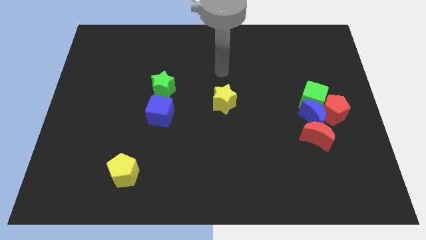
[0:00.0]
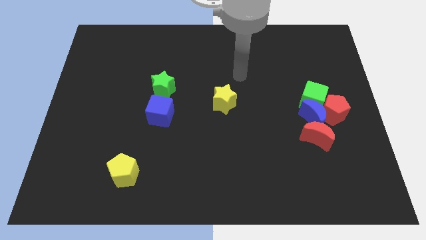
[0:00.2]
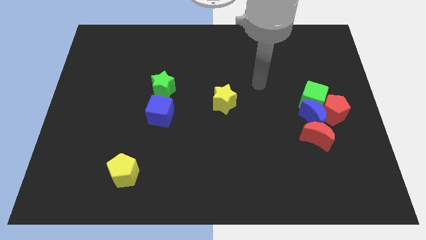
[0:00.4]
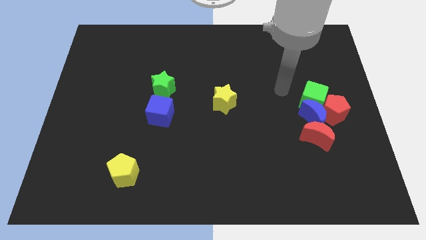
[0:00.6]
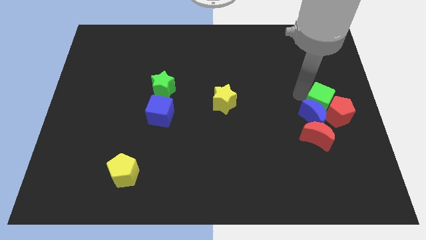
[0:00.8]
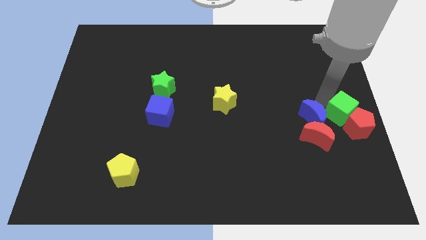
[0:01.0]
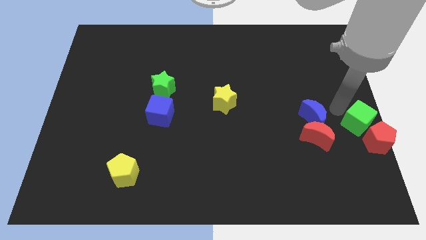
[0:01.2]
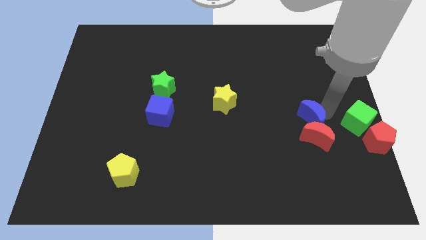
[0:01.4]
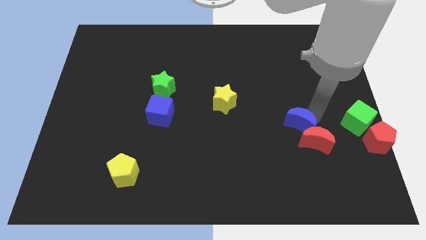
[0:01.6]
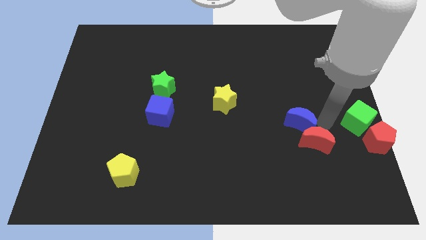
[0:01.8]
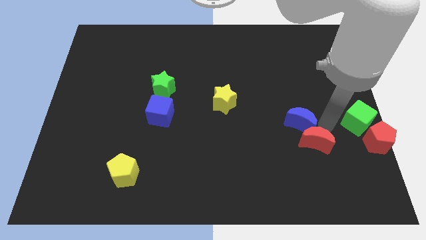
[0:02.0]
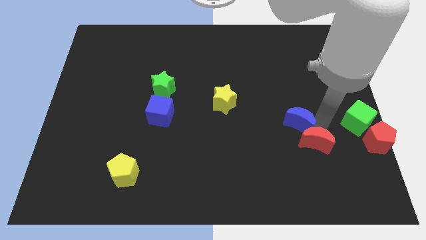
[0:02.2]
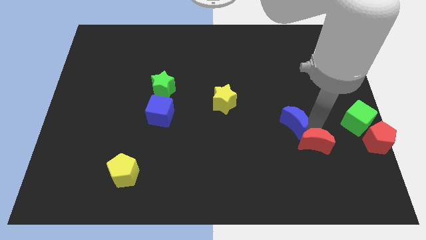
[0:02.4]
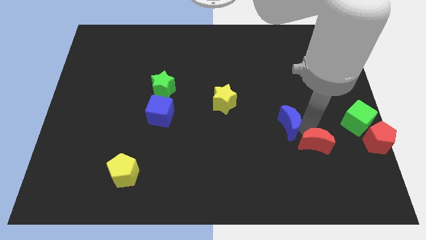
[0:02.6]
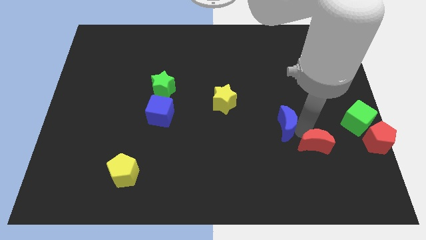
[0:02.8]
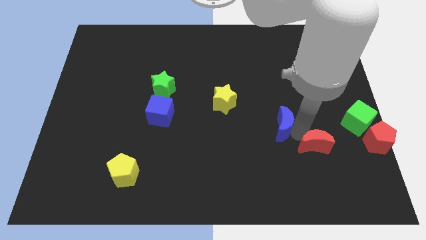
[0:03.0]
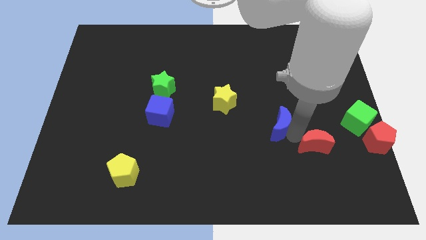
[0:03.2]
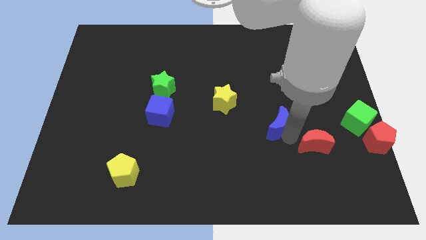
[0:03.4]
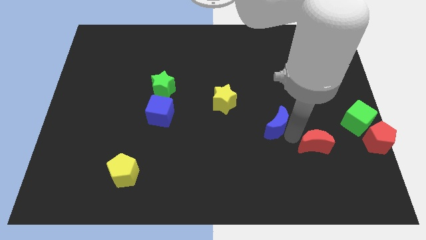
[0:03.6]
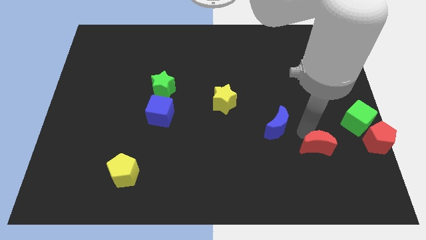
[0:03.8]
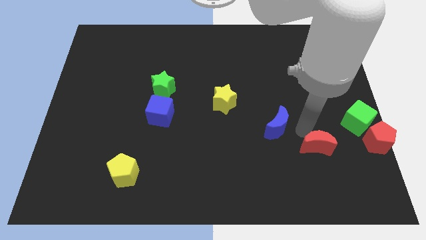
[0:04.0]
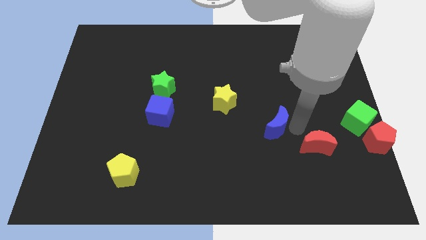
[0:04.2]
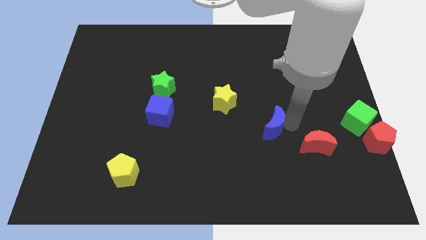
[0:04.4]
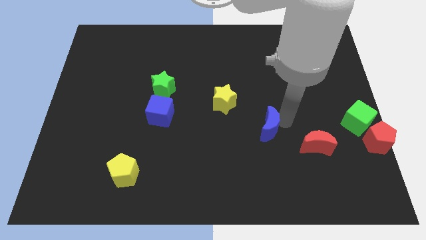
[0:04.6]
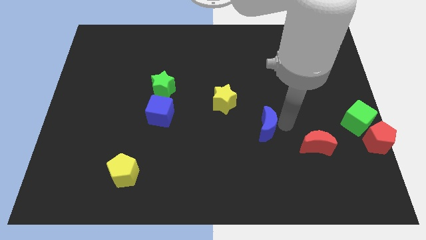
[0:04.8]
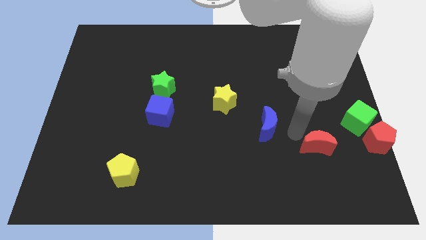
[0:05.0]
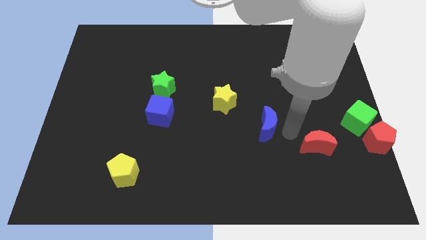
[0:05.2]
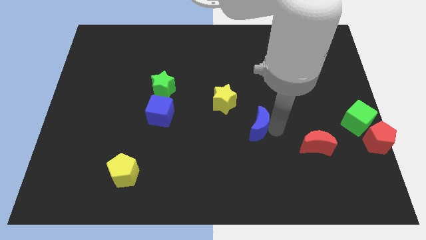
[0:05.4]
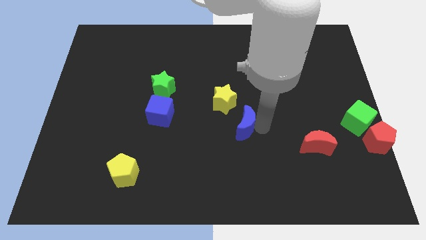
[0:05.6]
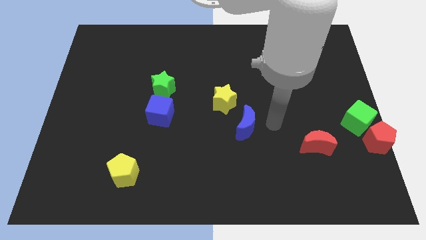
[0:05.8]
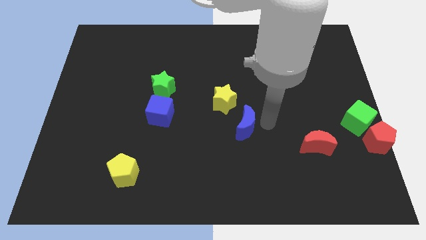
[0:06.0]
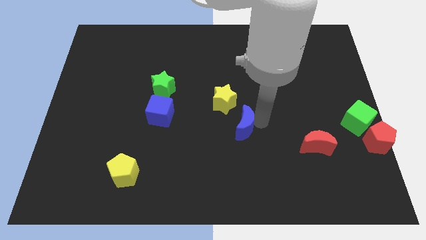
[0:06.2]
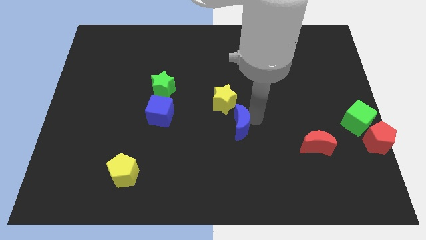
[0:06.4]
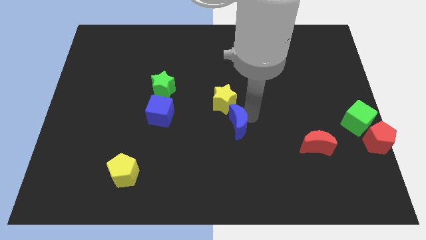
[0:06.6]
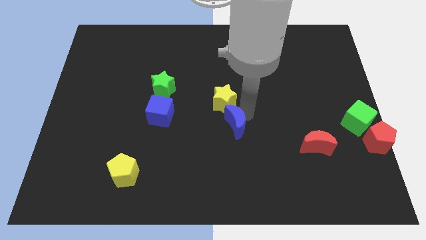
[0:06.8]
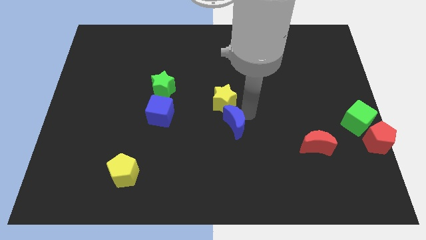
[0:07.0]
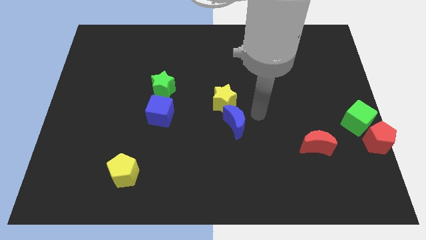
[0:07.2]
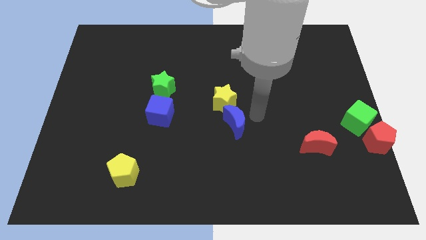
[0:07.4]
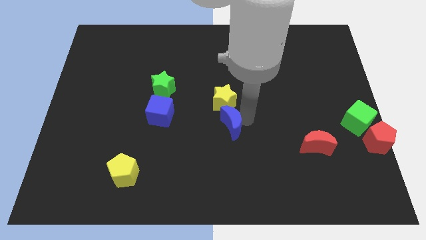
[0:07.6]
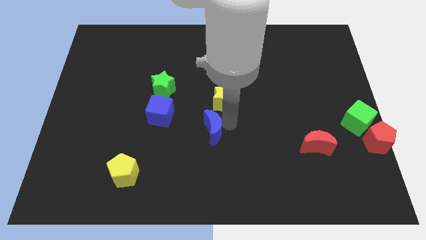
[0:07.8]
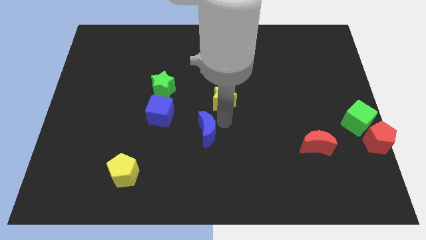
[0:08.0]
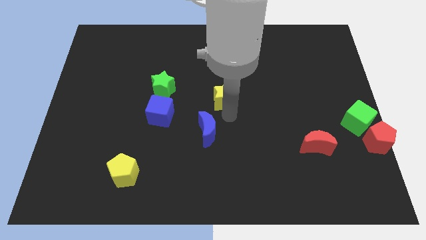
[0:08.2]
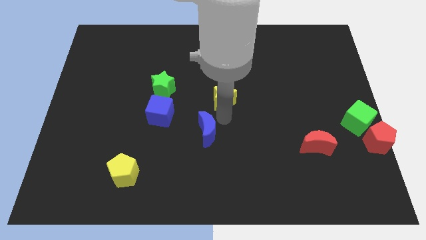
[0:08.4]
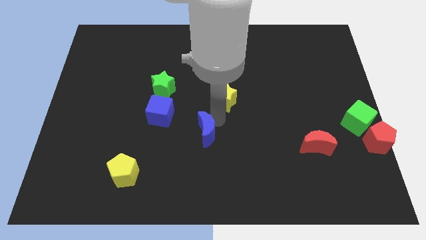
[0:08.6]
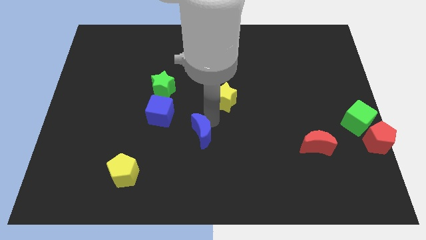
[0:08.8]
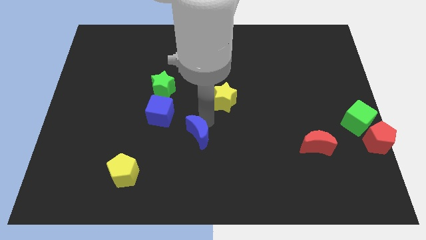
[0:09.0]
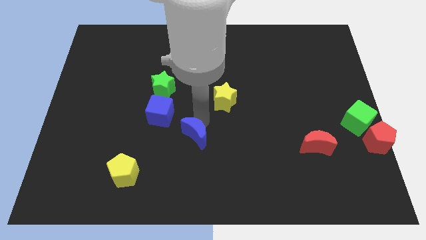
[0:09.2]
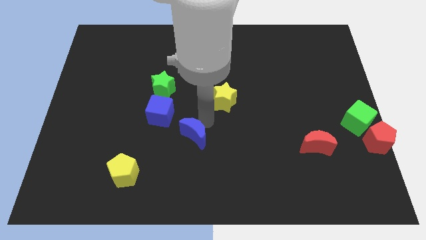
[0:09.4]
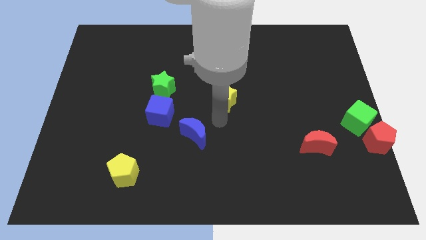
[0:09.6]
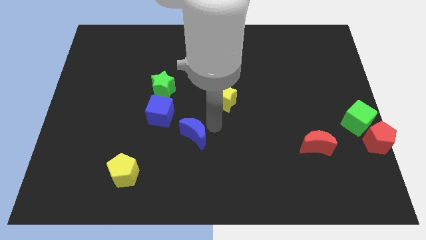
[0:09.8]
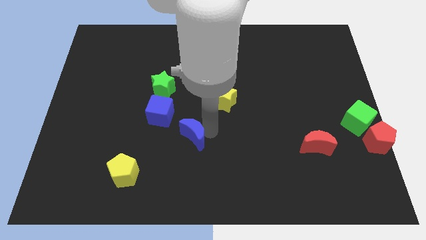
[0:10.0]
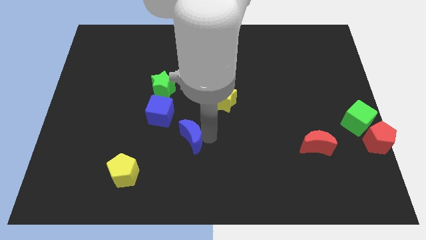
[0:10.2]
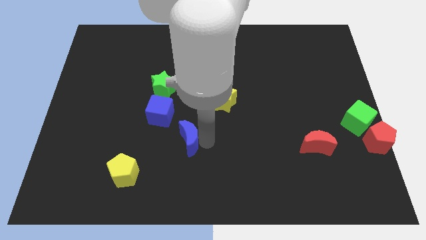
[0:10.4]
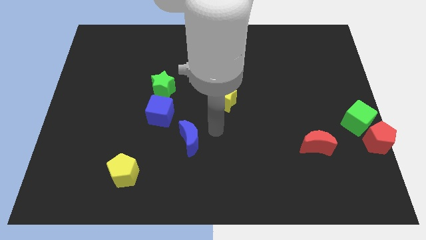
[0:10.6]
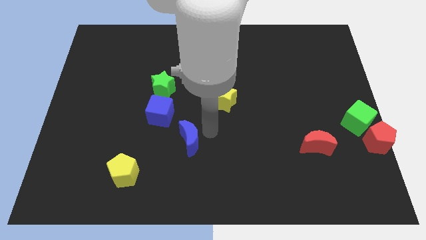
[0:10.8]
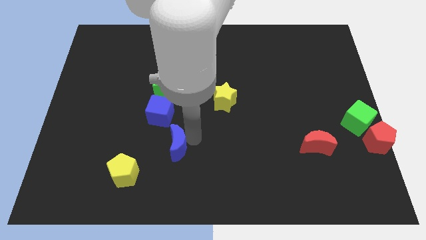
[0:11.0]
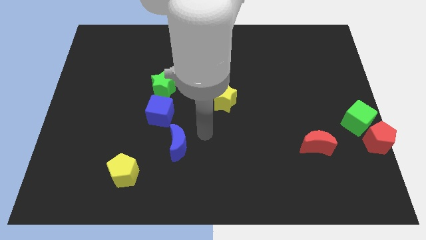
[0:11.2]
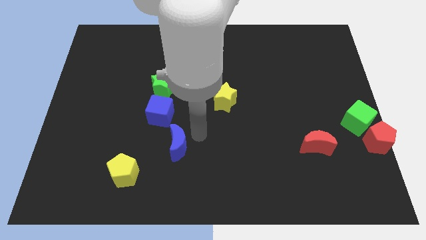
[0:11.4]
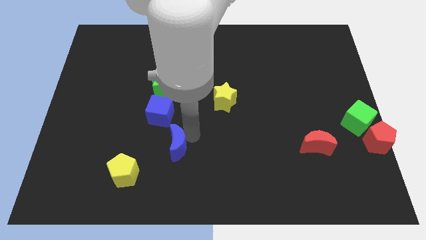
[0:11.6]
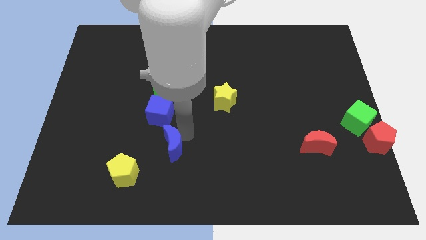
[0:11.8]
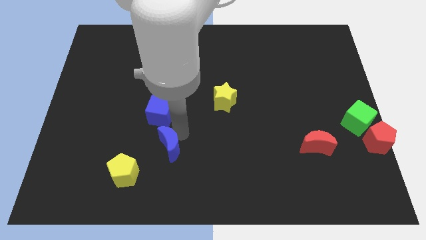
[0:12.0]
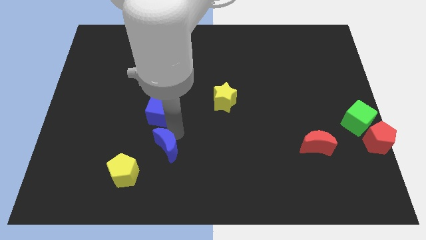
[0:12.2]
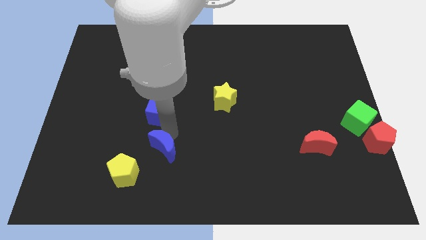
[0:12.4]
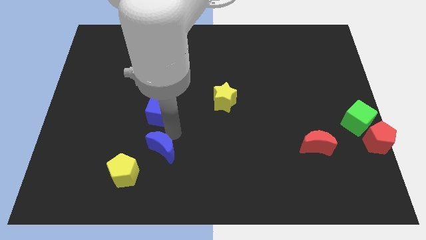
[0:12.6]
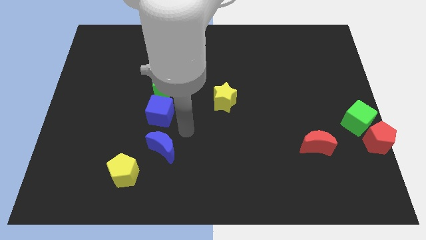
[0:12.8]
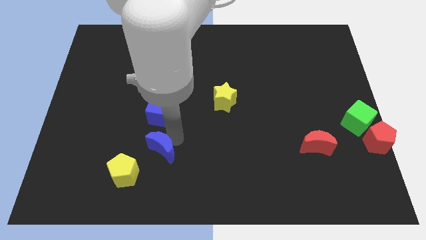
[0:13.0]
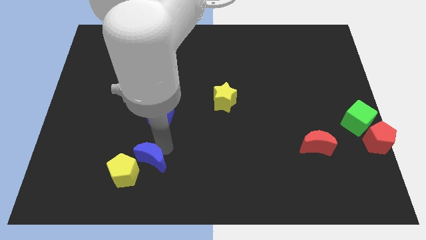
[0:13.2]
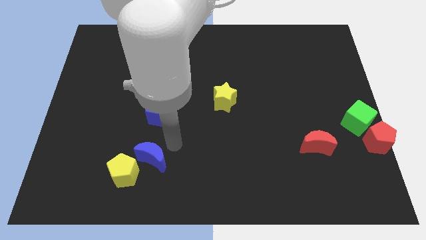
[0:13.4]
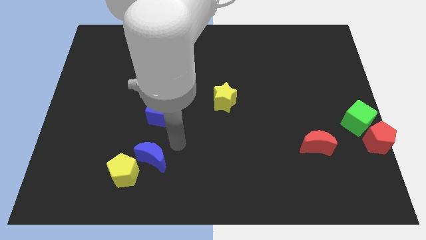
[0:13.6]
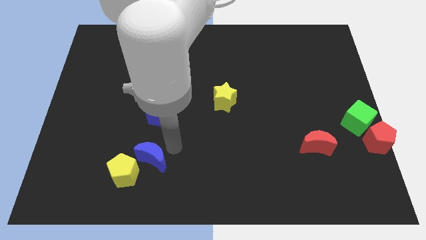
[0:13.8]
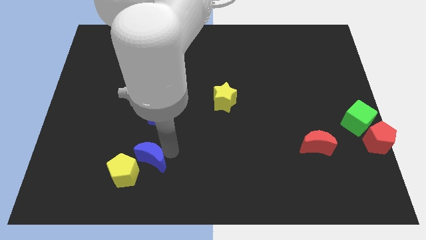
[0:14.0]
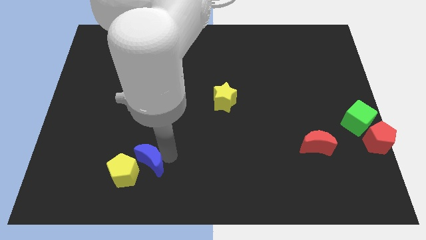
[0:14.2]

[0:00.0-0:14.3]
put the blue moon next to the yellow pentagon

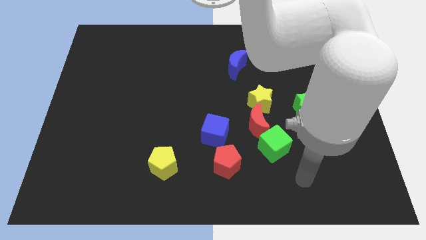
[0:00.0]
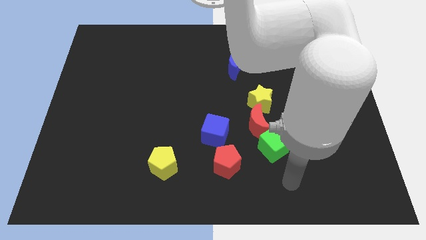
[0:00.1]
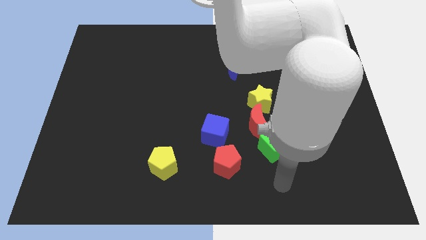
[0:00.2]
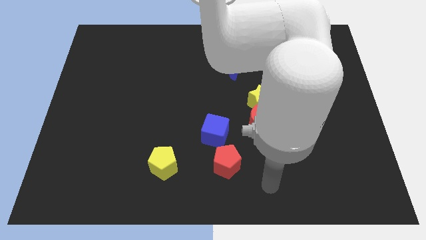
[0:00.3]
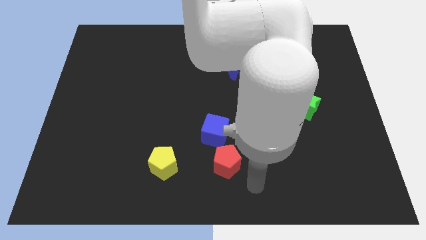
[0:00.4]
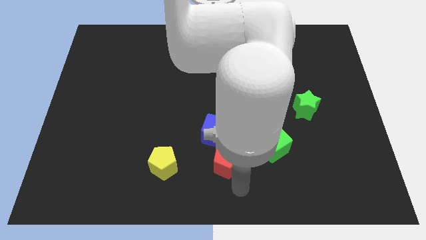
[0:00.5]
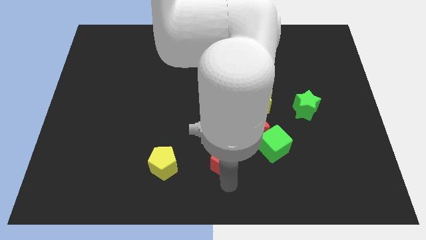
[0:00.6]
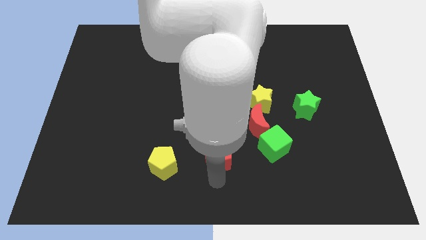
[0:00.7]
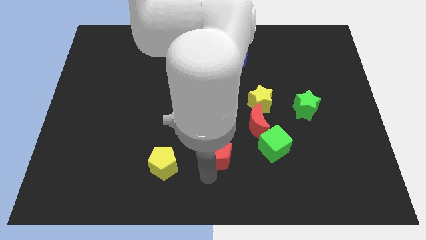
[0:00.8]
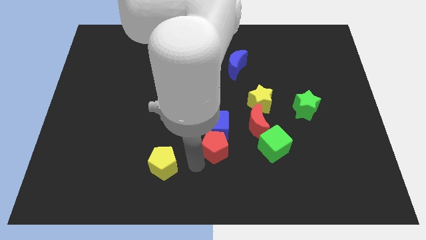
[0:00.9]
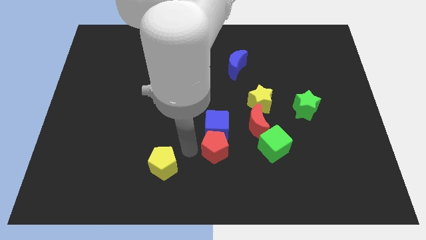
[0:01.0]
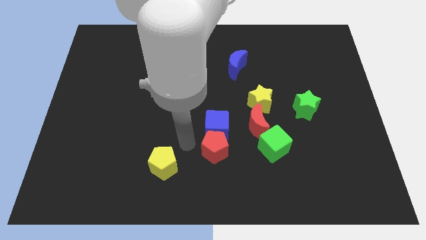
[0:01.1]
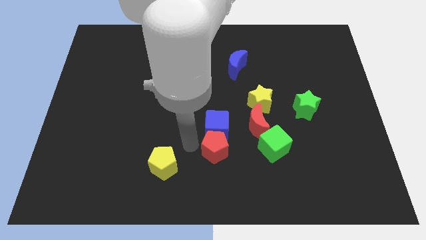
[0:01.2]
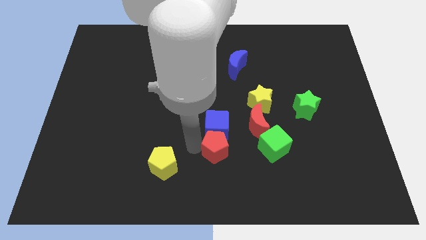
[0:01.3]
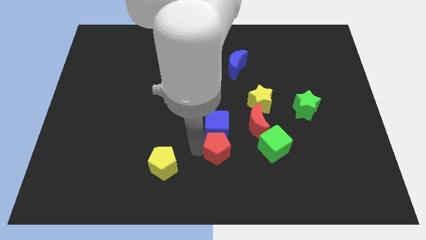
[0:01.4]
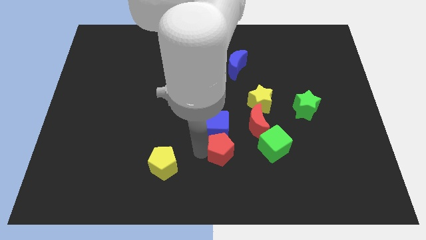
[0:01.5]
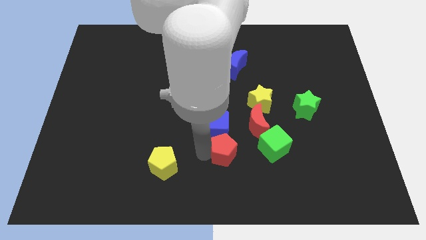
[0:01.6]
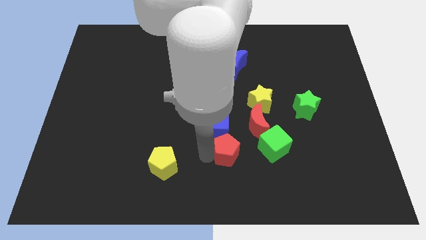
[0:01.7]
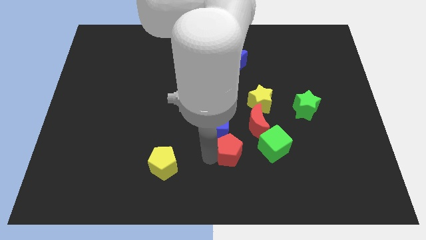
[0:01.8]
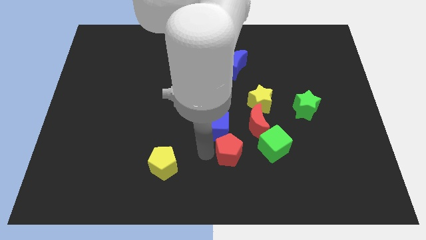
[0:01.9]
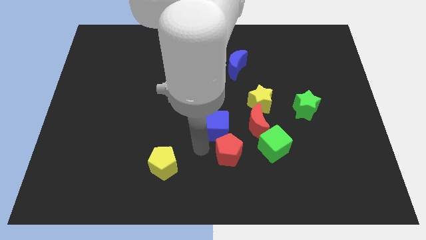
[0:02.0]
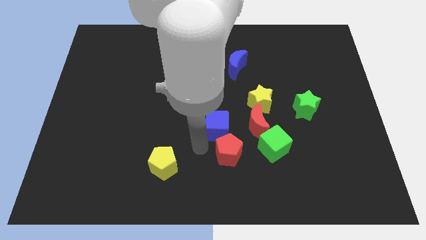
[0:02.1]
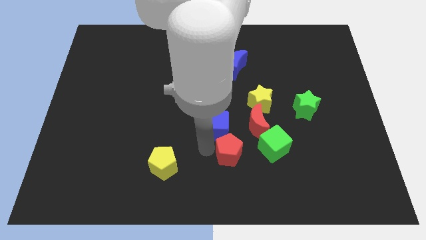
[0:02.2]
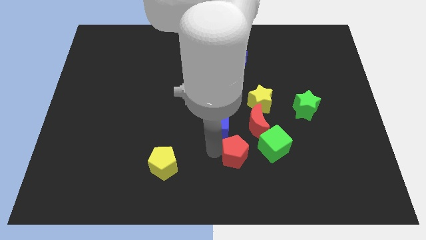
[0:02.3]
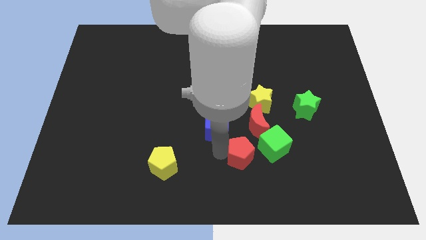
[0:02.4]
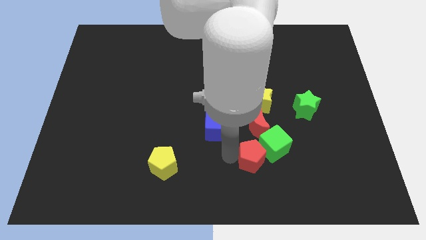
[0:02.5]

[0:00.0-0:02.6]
slide the red pentagon towards the green cube
